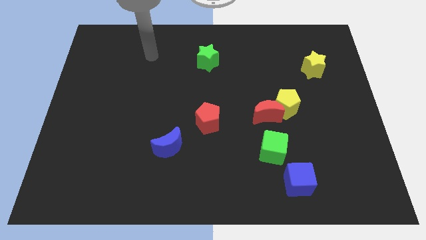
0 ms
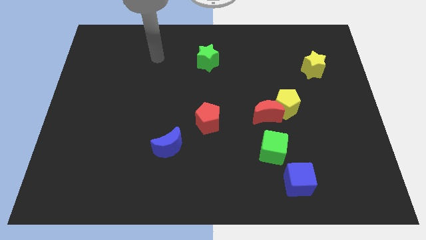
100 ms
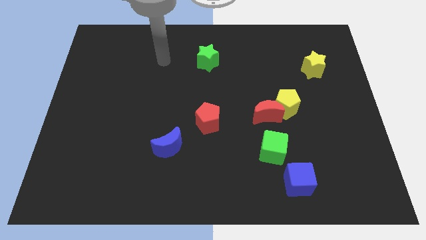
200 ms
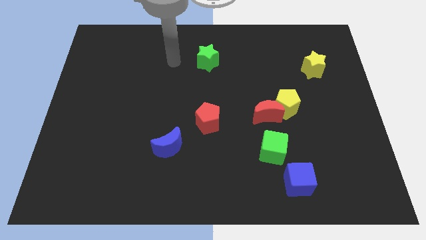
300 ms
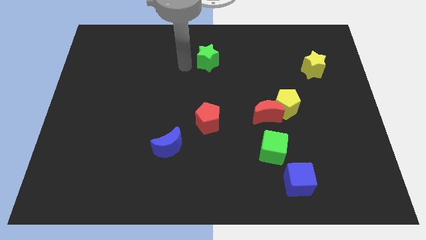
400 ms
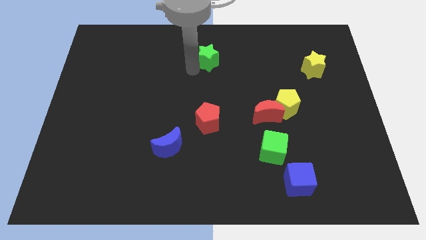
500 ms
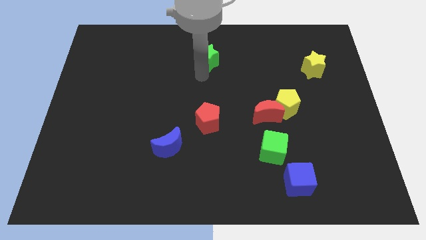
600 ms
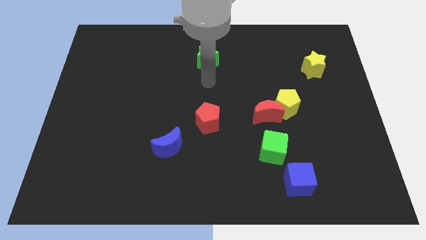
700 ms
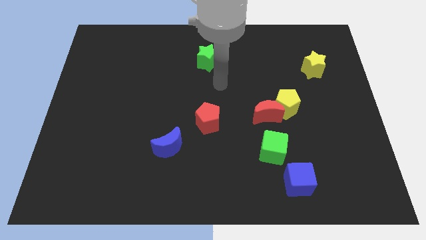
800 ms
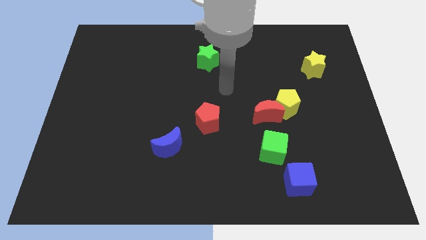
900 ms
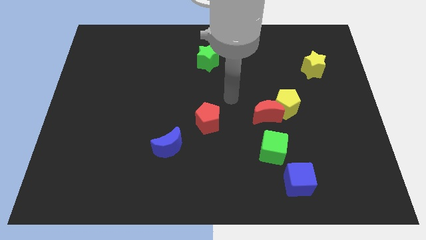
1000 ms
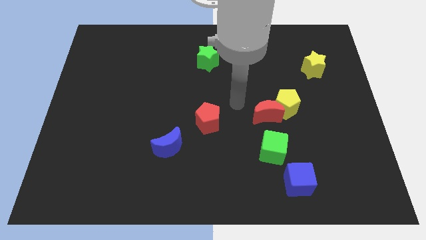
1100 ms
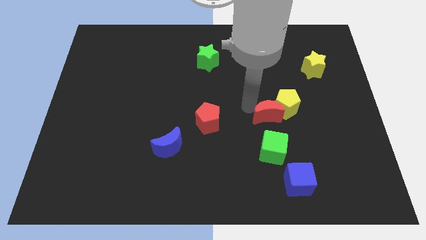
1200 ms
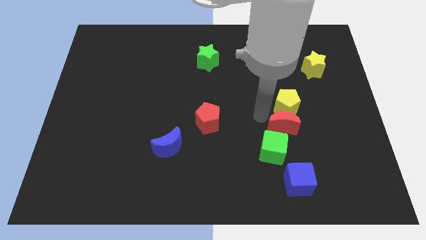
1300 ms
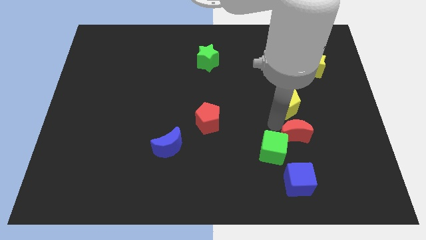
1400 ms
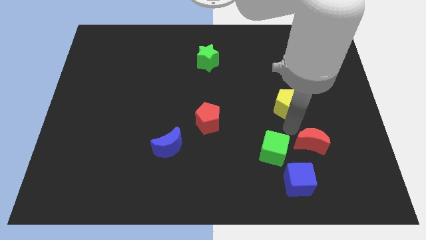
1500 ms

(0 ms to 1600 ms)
move the yellow pentagon away from the red moon

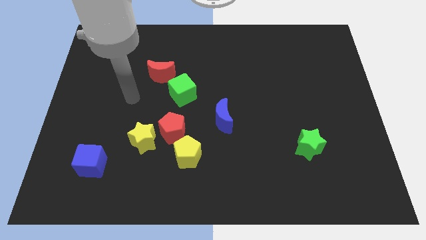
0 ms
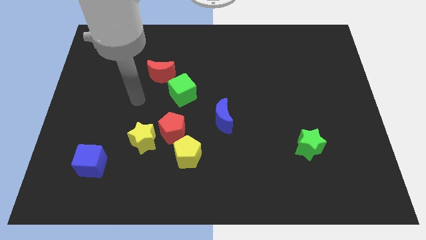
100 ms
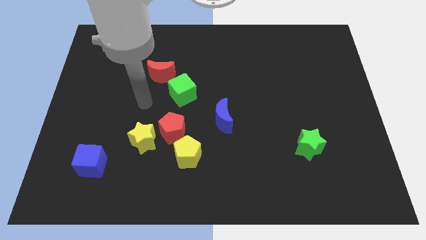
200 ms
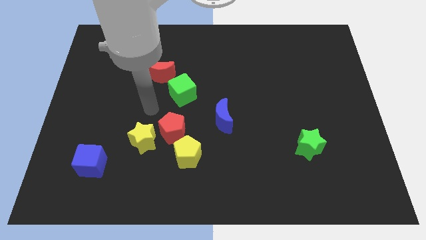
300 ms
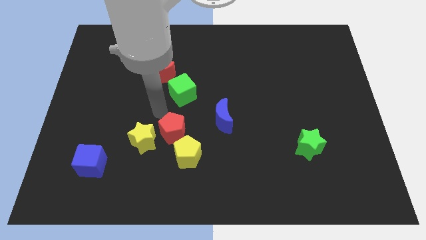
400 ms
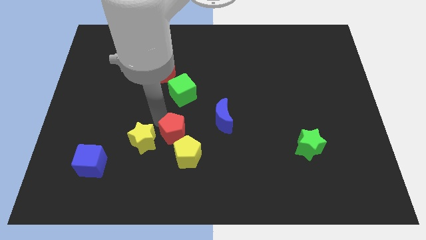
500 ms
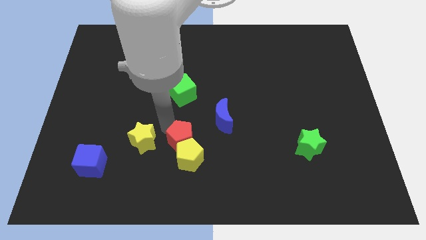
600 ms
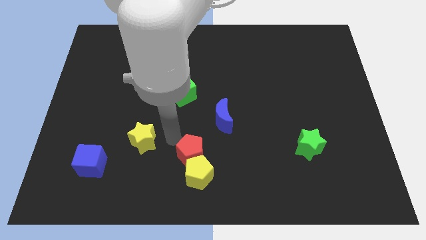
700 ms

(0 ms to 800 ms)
pull the yellow star apart from the red pentagon

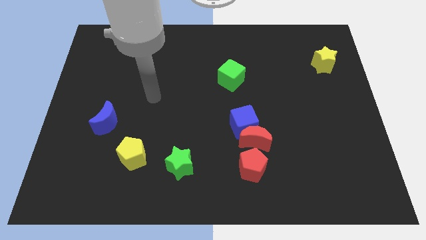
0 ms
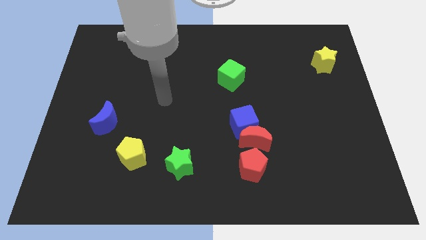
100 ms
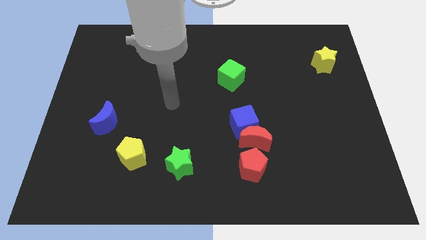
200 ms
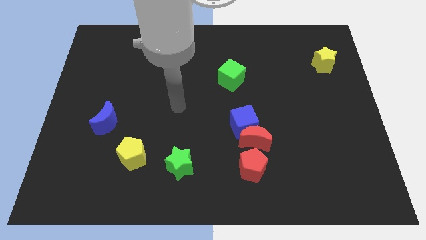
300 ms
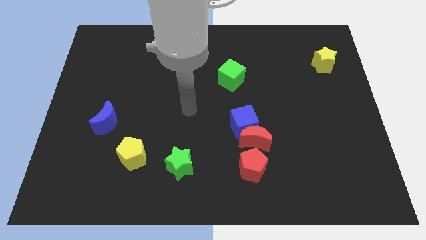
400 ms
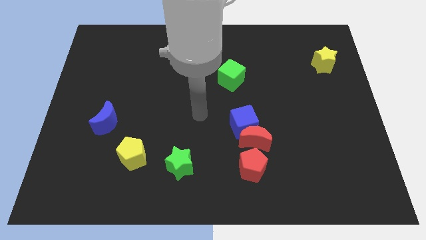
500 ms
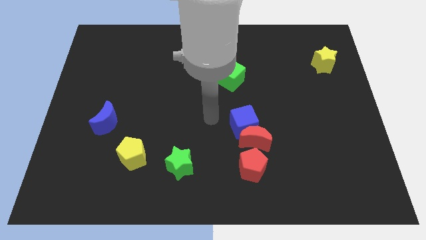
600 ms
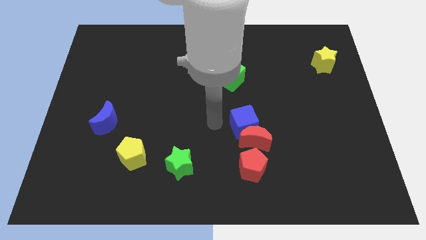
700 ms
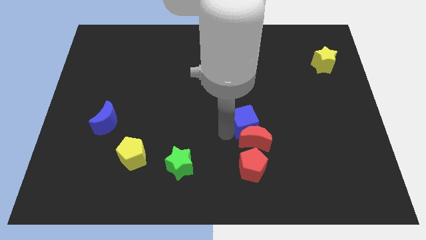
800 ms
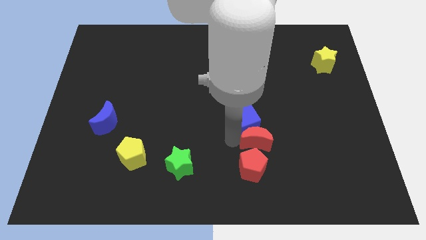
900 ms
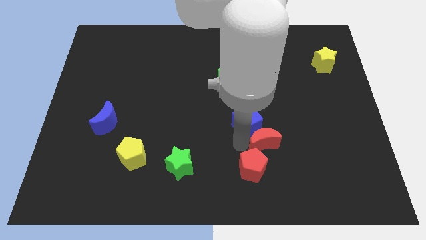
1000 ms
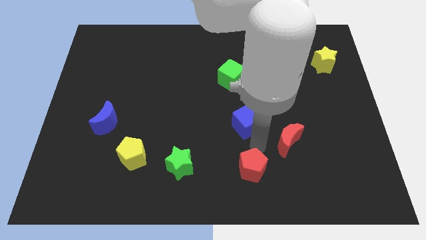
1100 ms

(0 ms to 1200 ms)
pull the blue cube apart from the red moon

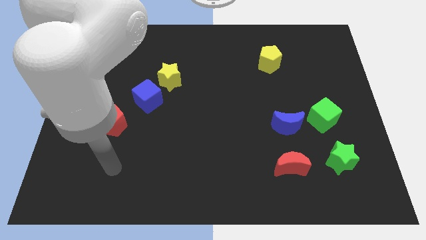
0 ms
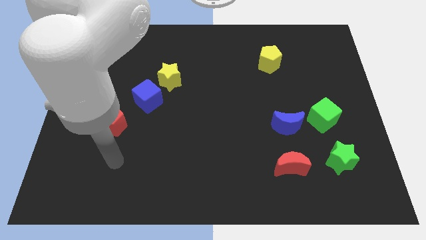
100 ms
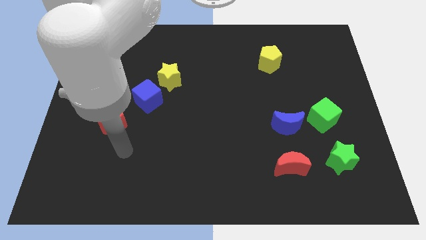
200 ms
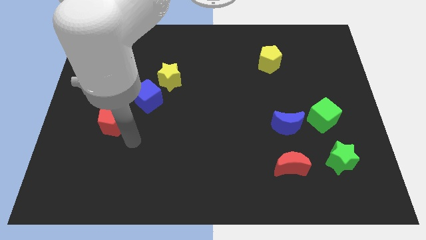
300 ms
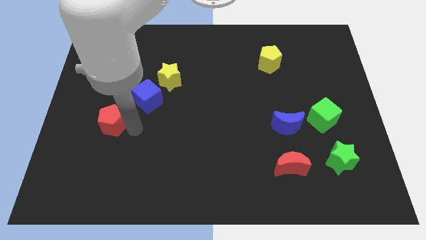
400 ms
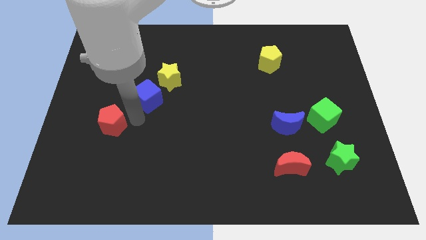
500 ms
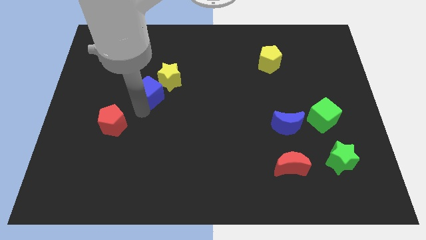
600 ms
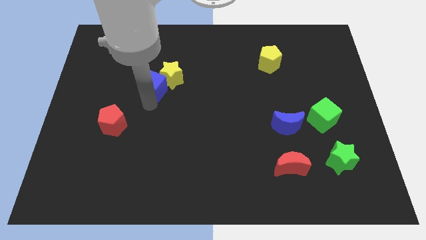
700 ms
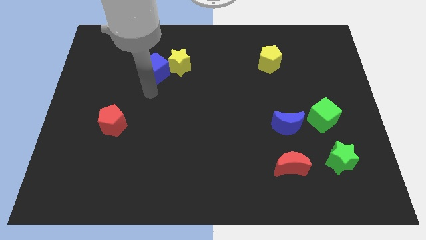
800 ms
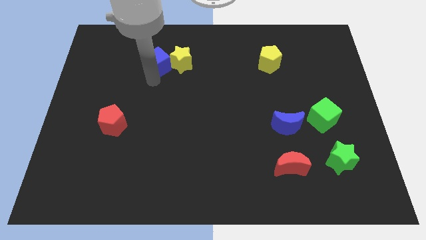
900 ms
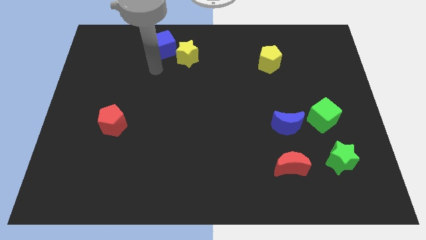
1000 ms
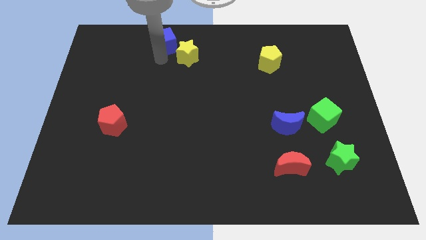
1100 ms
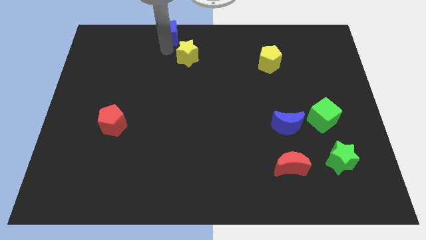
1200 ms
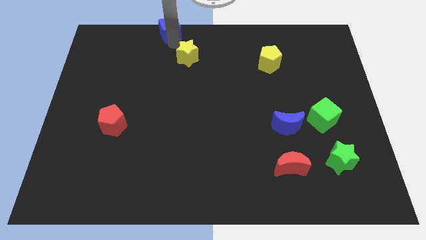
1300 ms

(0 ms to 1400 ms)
pull the yellow star apart from the blue cube

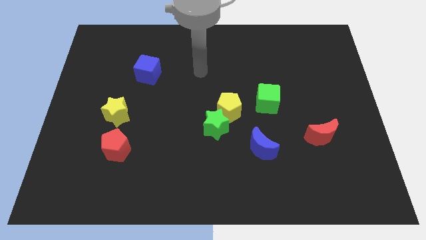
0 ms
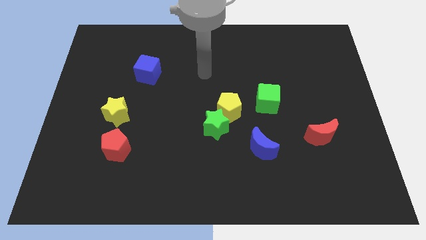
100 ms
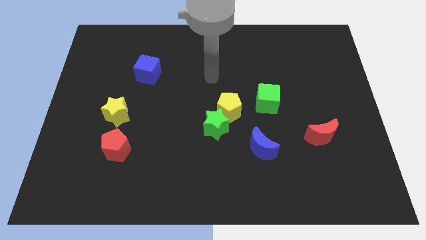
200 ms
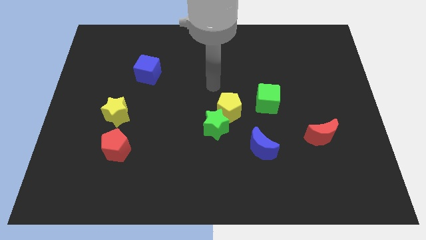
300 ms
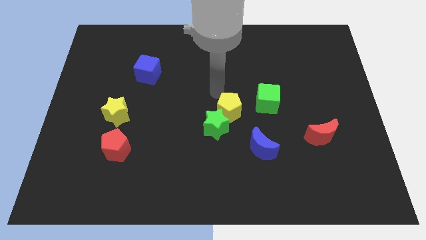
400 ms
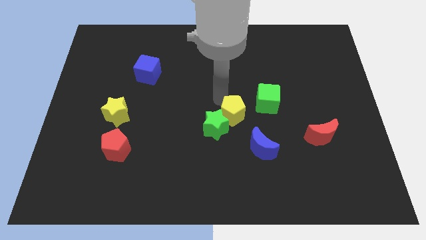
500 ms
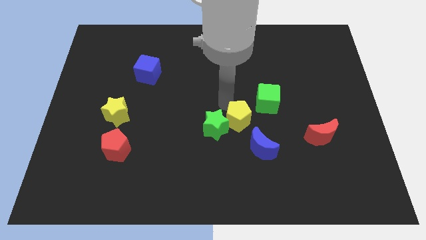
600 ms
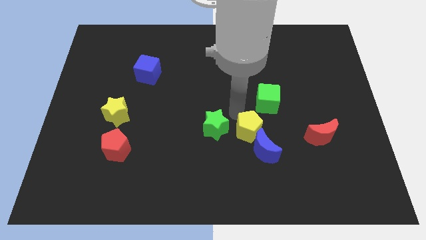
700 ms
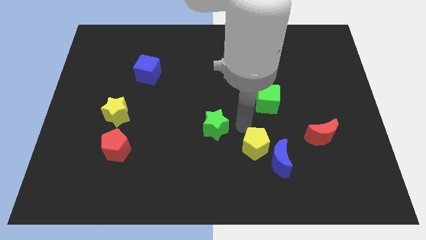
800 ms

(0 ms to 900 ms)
separate the green star from the yellow pentagon

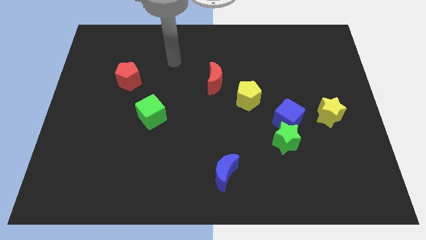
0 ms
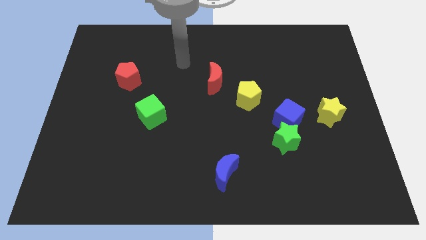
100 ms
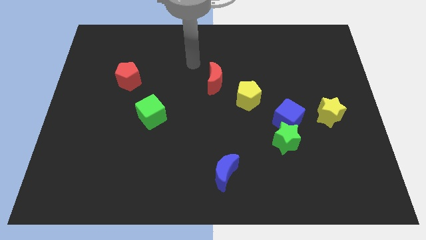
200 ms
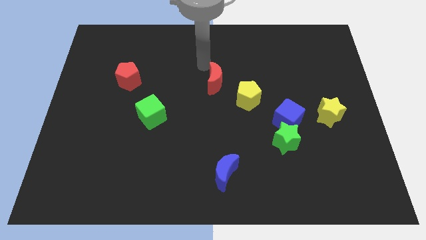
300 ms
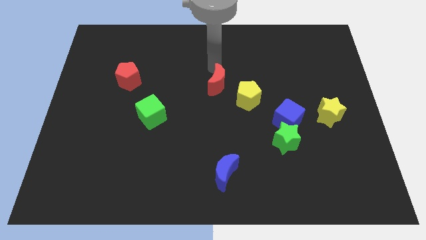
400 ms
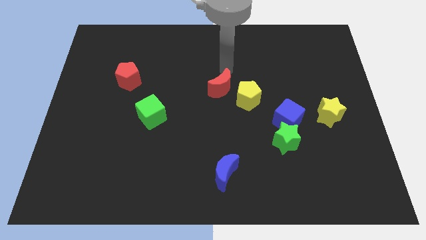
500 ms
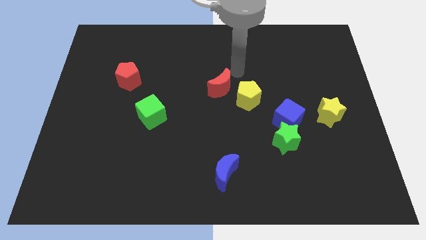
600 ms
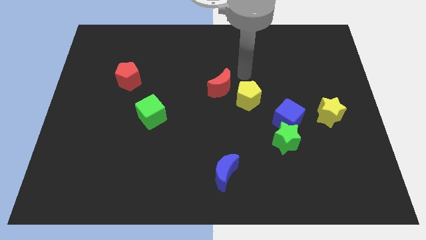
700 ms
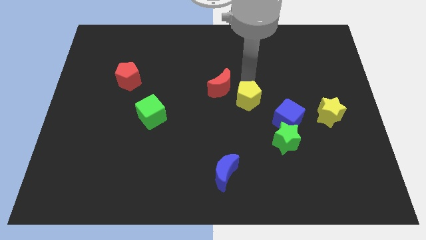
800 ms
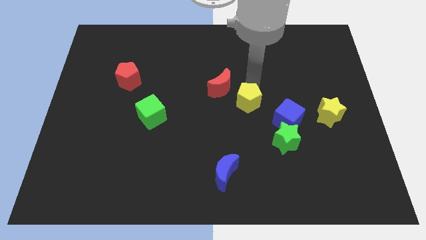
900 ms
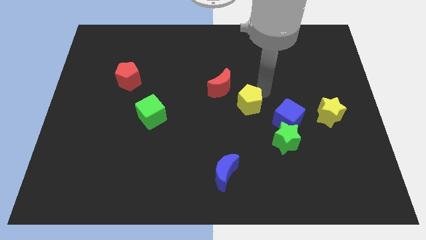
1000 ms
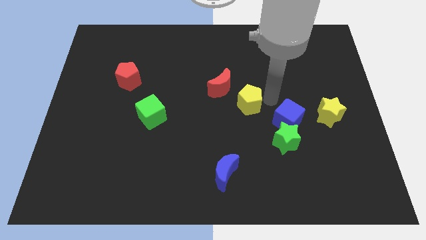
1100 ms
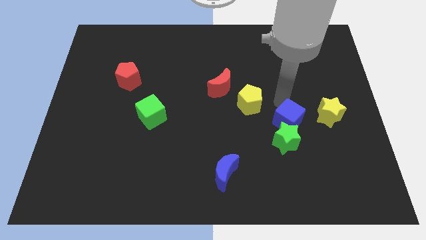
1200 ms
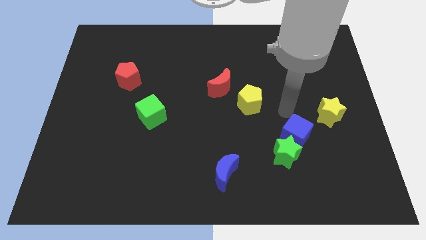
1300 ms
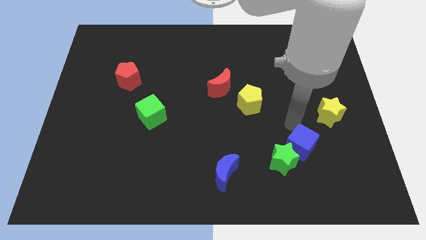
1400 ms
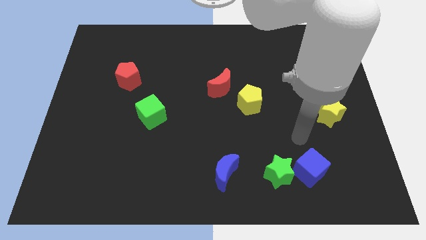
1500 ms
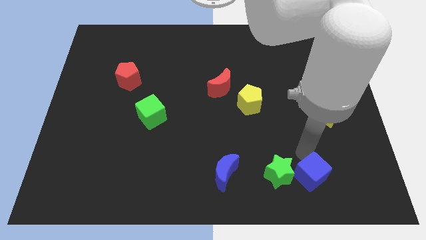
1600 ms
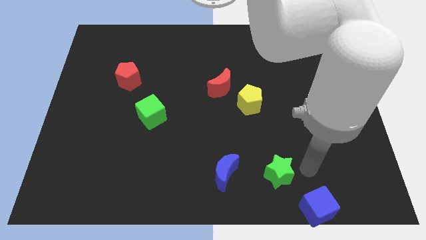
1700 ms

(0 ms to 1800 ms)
move the green star away from the blue cube

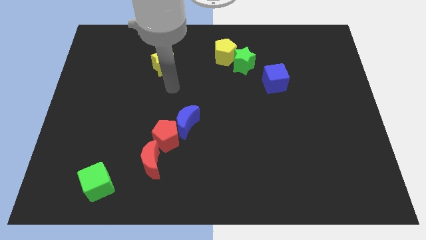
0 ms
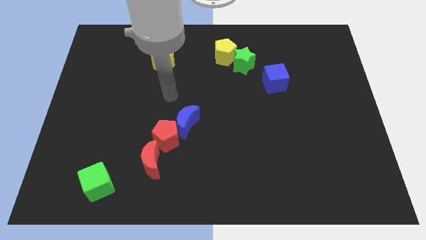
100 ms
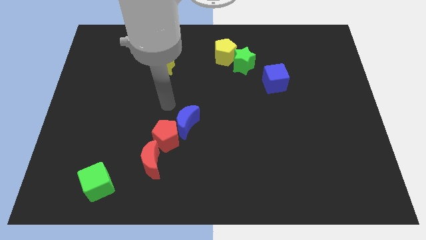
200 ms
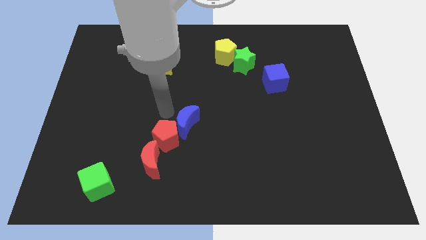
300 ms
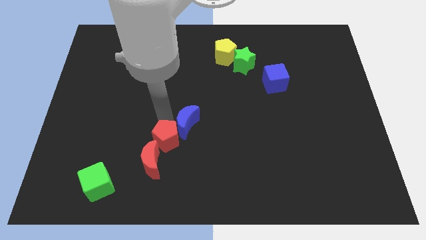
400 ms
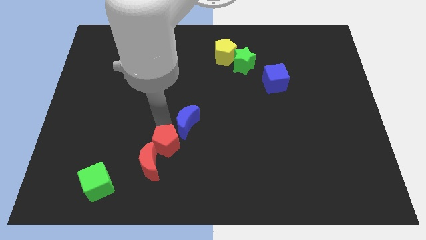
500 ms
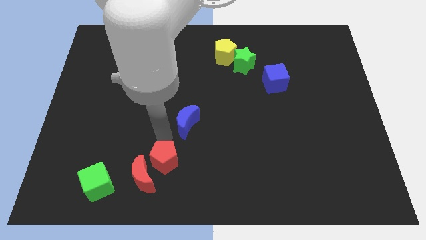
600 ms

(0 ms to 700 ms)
pull the blue moon apart from the red pentagon

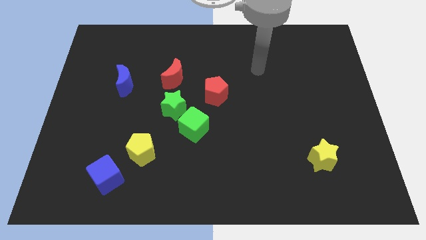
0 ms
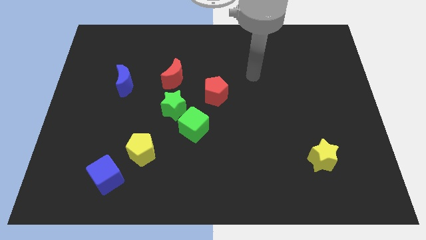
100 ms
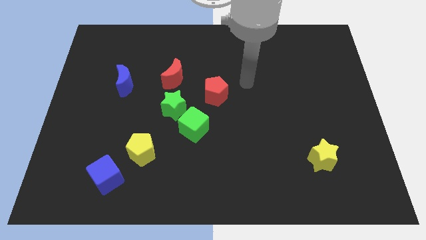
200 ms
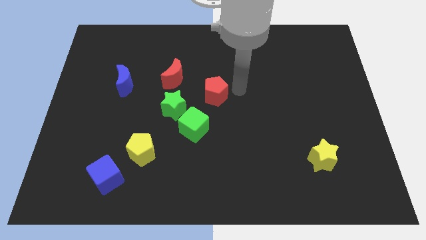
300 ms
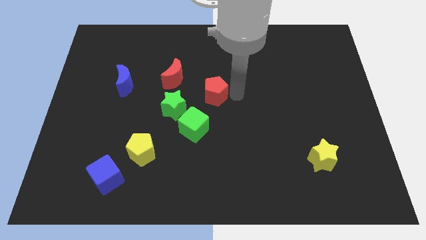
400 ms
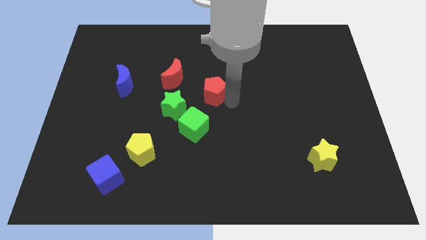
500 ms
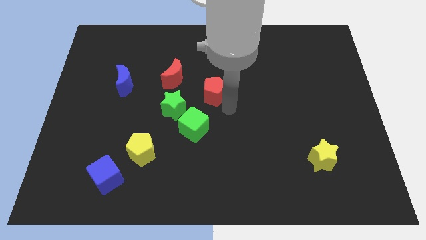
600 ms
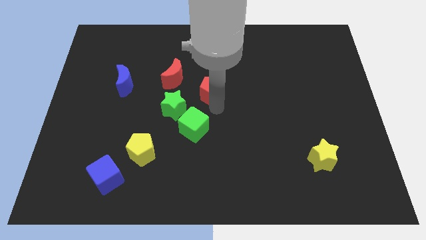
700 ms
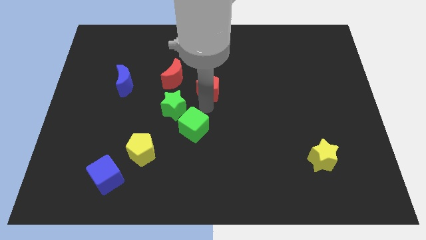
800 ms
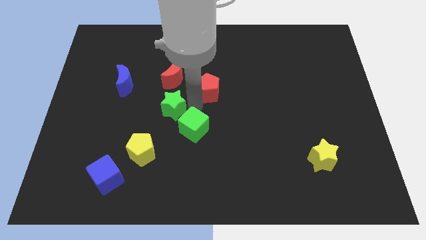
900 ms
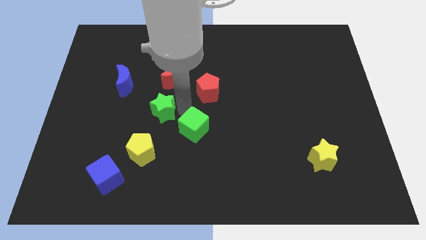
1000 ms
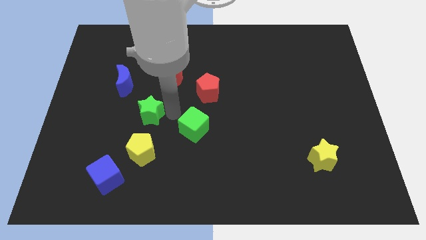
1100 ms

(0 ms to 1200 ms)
separate the green cube from the green star
